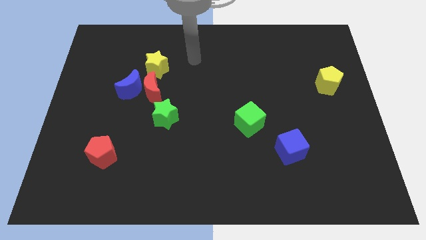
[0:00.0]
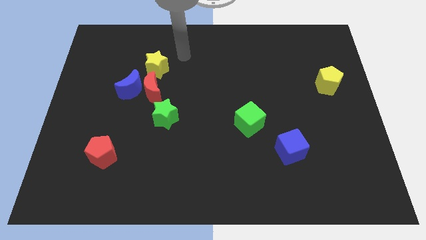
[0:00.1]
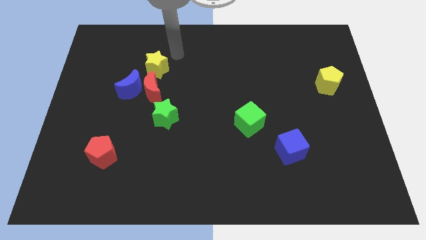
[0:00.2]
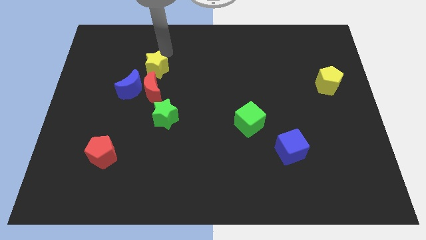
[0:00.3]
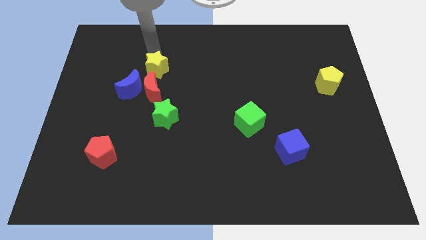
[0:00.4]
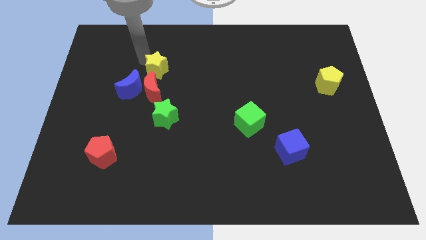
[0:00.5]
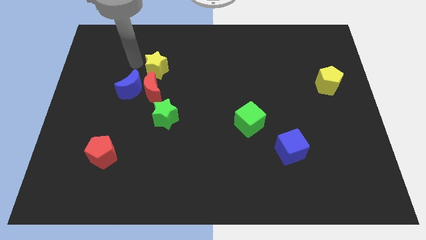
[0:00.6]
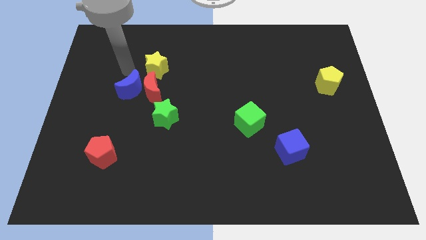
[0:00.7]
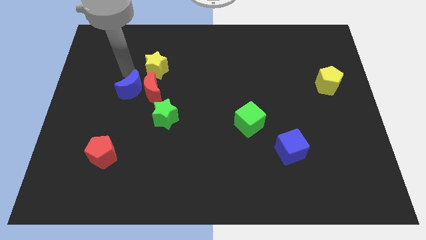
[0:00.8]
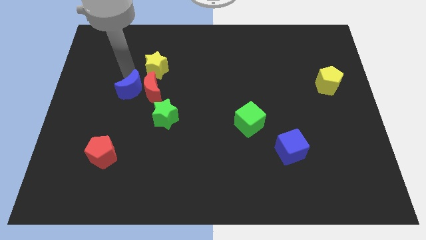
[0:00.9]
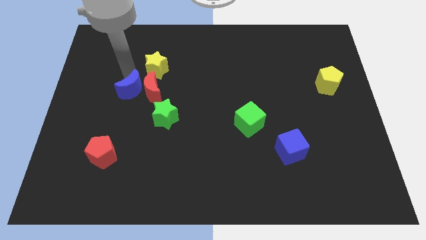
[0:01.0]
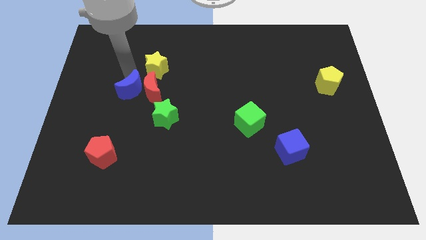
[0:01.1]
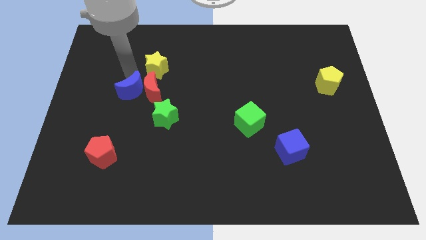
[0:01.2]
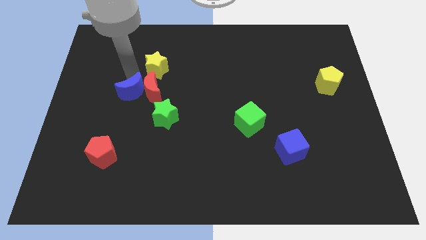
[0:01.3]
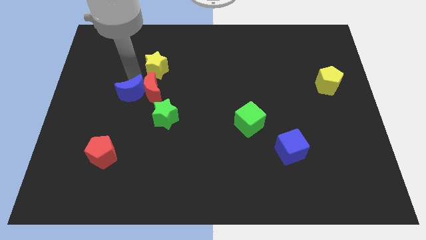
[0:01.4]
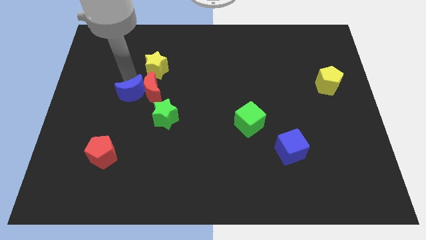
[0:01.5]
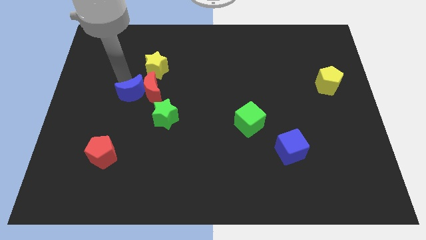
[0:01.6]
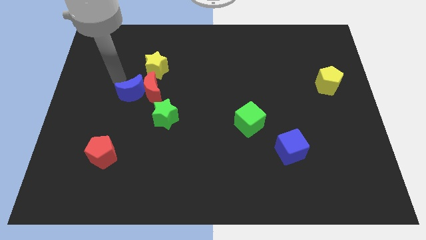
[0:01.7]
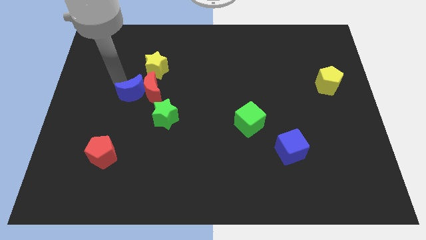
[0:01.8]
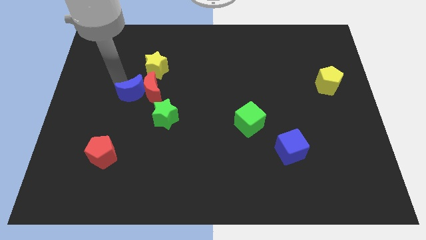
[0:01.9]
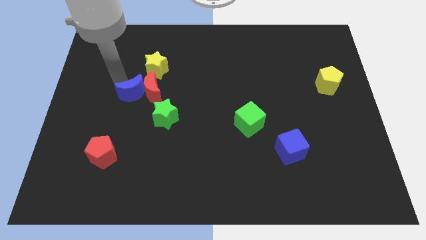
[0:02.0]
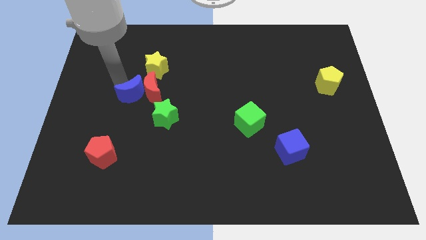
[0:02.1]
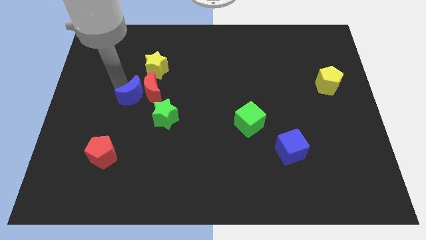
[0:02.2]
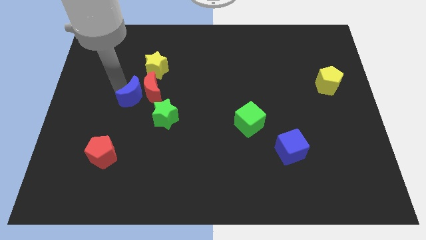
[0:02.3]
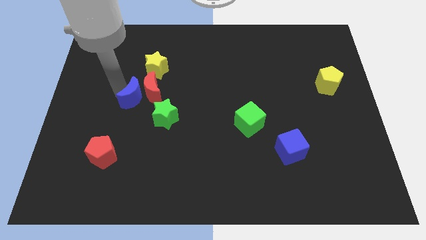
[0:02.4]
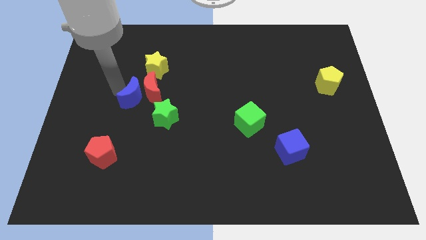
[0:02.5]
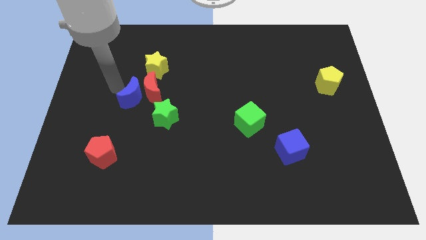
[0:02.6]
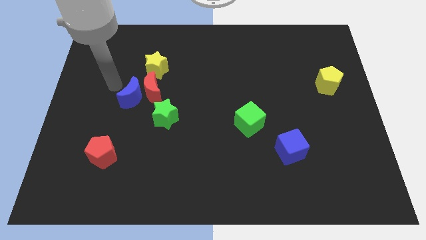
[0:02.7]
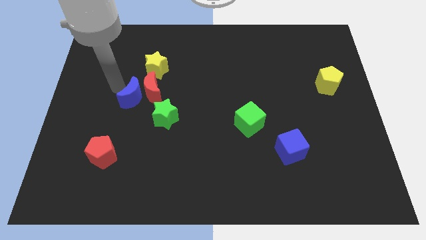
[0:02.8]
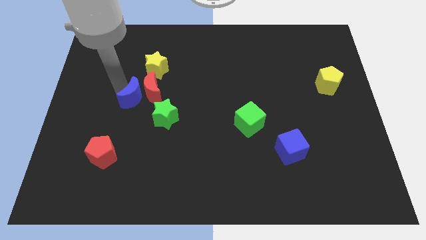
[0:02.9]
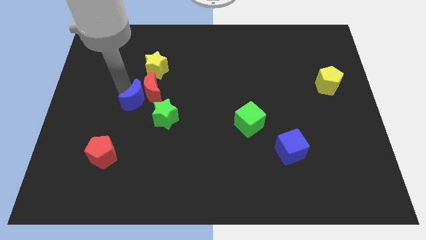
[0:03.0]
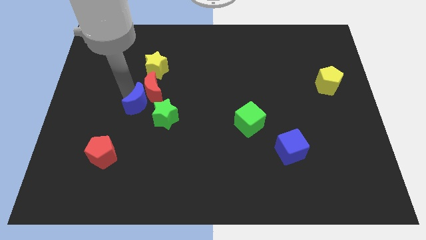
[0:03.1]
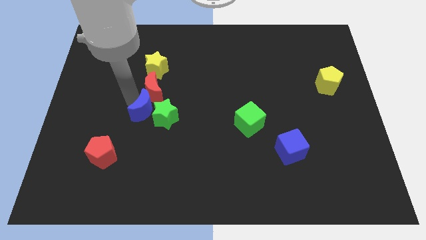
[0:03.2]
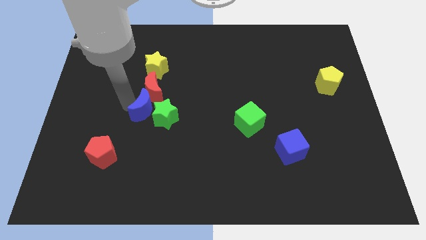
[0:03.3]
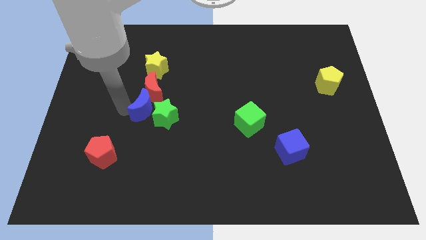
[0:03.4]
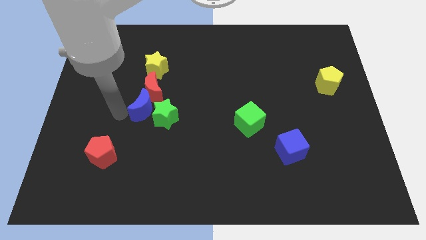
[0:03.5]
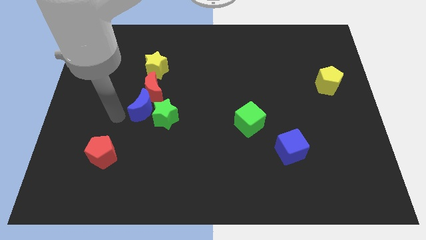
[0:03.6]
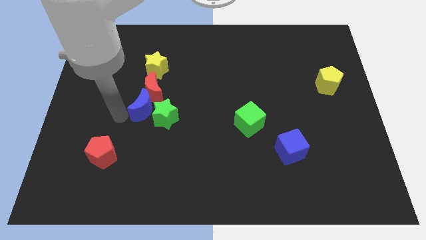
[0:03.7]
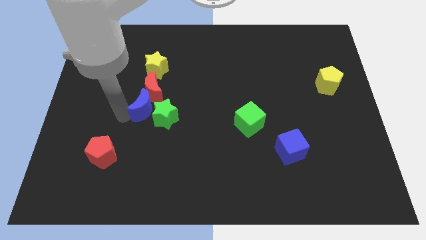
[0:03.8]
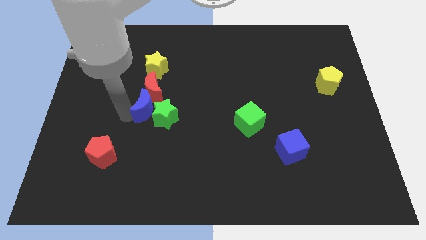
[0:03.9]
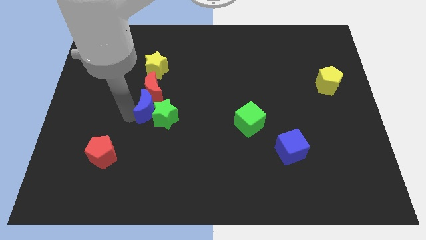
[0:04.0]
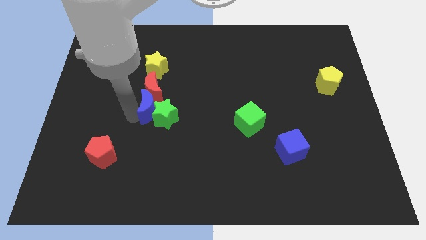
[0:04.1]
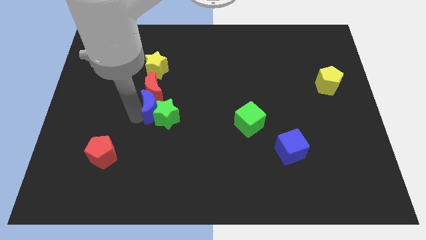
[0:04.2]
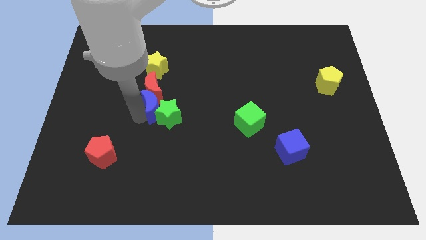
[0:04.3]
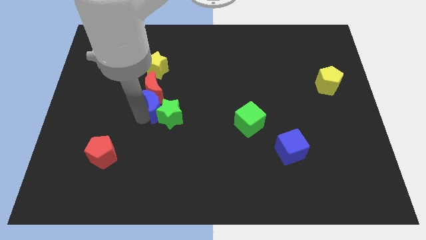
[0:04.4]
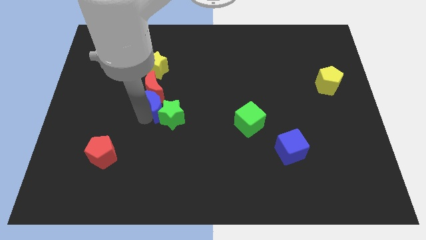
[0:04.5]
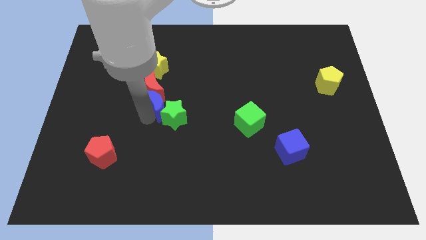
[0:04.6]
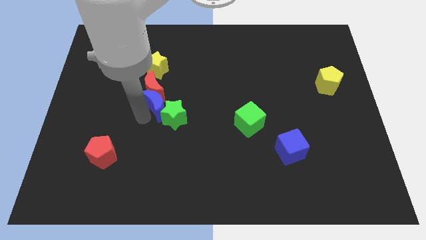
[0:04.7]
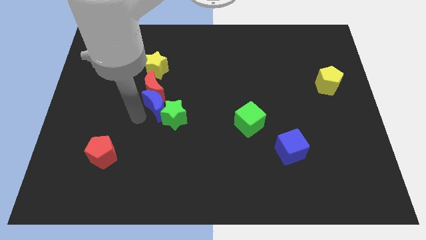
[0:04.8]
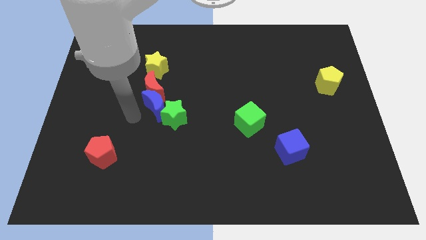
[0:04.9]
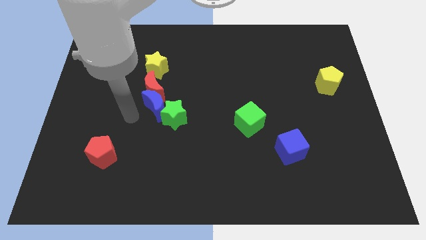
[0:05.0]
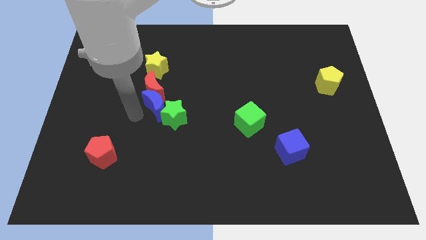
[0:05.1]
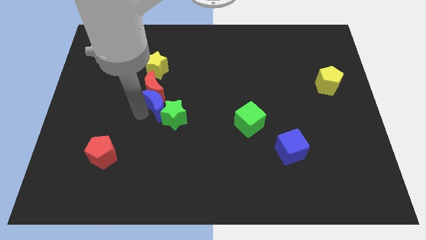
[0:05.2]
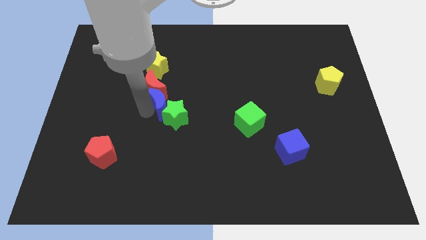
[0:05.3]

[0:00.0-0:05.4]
put the blue moon to the center of the board

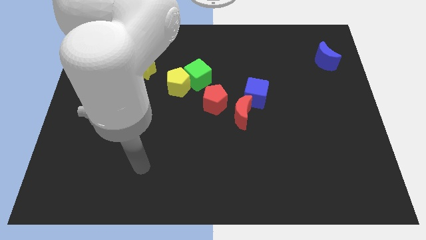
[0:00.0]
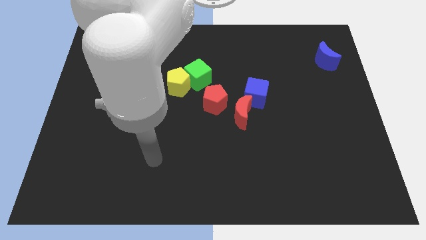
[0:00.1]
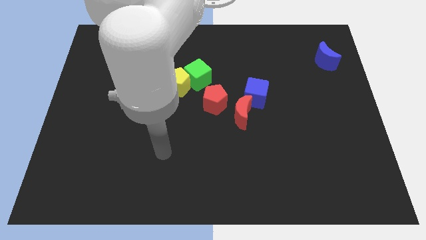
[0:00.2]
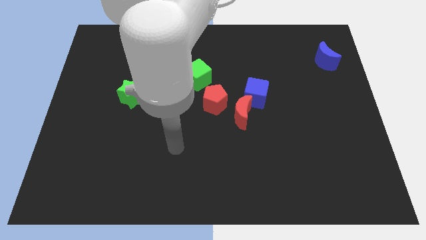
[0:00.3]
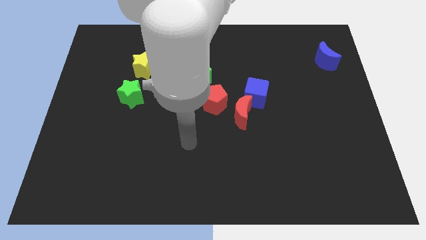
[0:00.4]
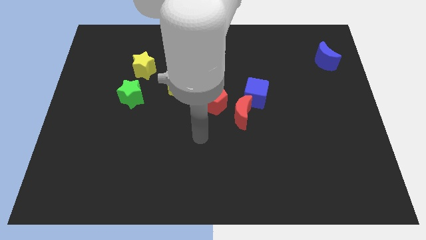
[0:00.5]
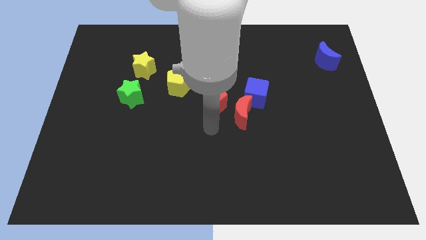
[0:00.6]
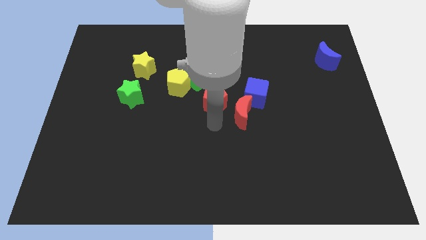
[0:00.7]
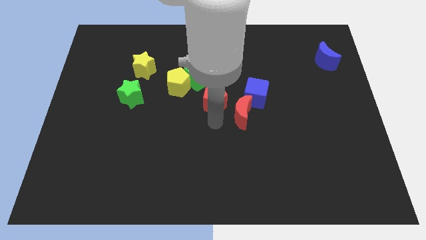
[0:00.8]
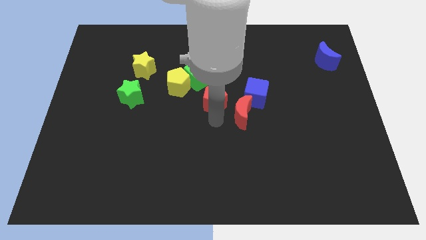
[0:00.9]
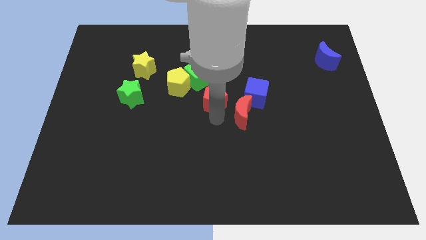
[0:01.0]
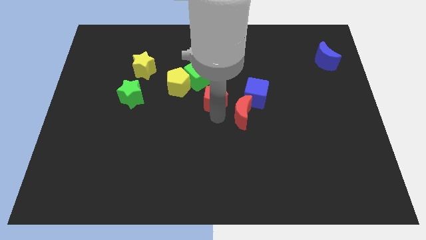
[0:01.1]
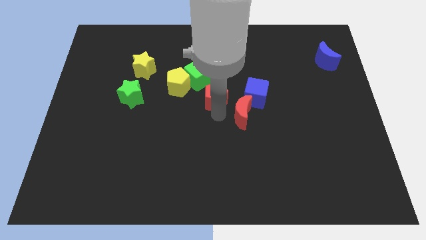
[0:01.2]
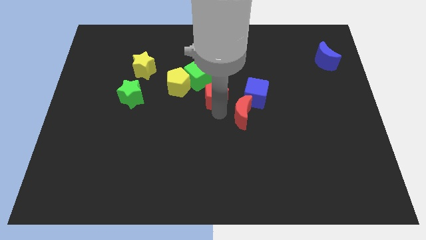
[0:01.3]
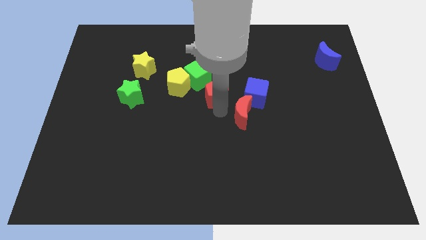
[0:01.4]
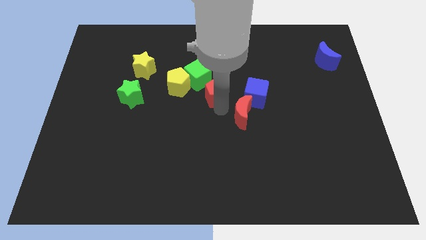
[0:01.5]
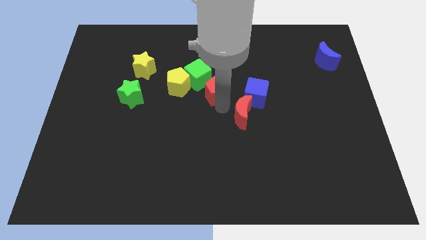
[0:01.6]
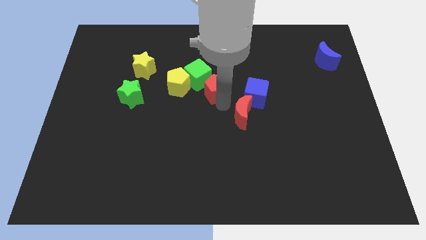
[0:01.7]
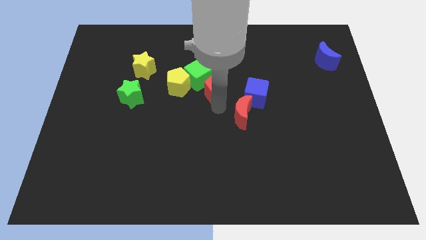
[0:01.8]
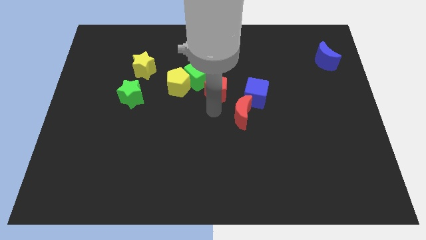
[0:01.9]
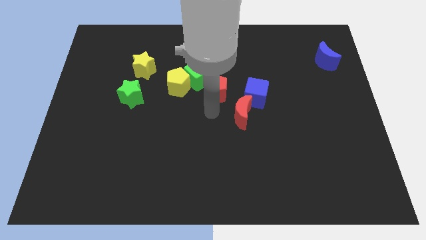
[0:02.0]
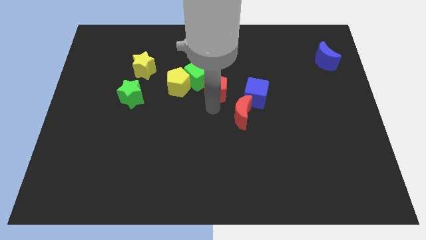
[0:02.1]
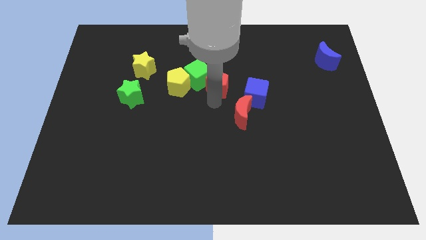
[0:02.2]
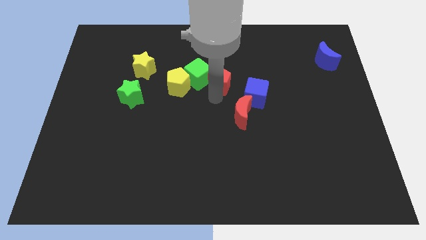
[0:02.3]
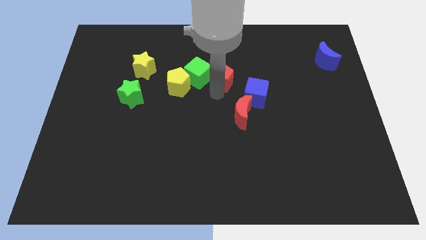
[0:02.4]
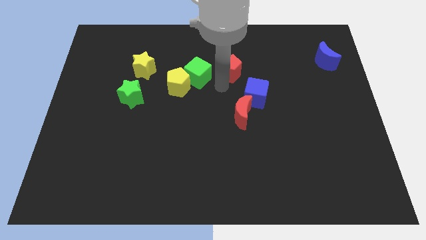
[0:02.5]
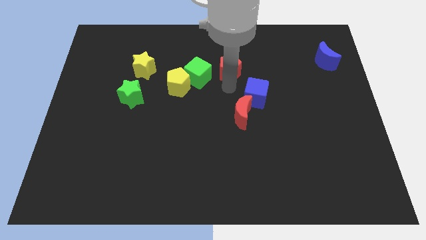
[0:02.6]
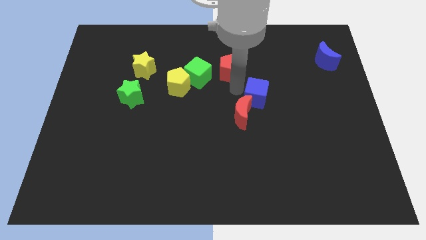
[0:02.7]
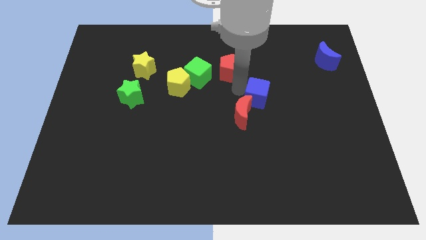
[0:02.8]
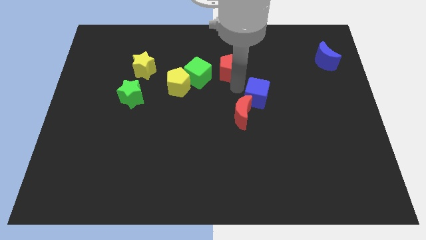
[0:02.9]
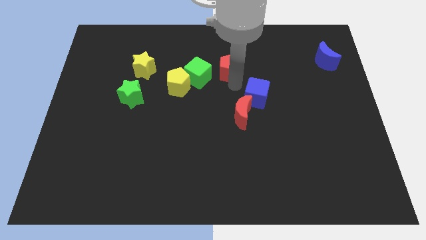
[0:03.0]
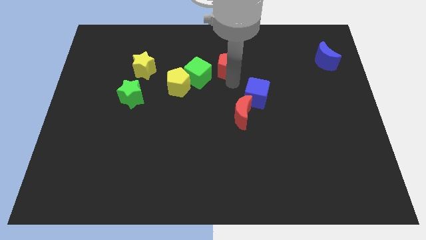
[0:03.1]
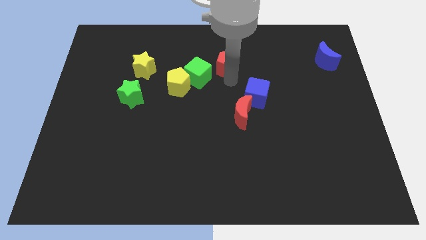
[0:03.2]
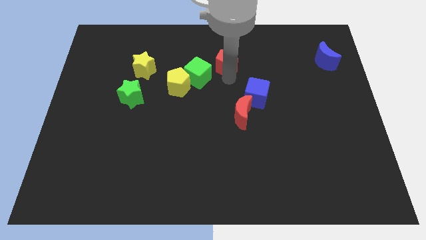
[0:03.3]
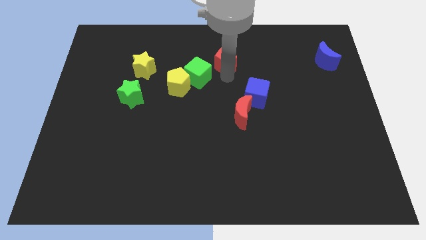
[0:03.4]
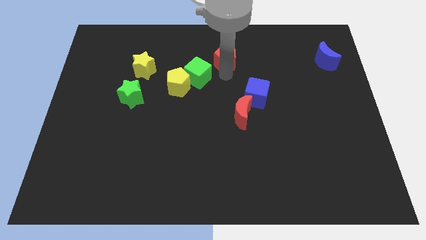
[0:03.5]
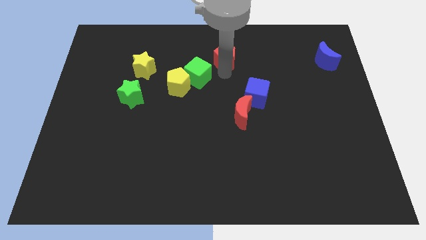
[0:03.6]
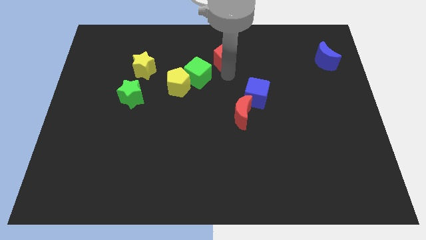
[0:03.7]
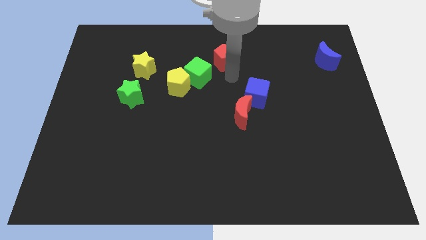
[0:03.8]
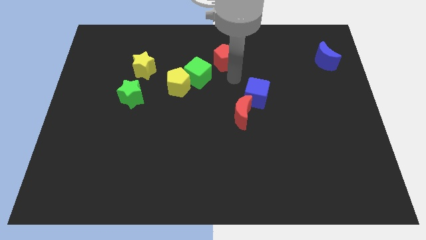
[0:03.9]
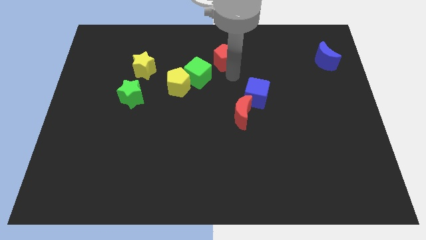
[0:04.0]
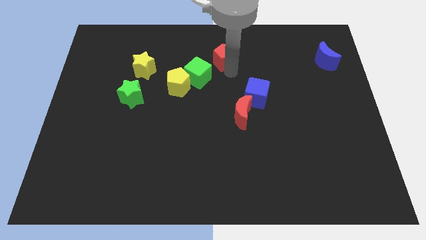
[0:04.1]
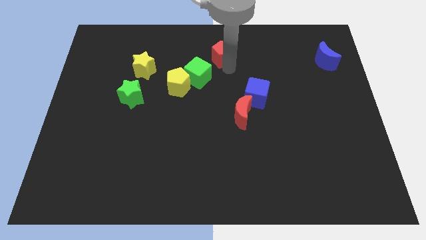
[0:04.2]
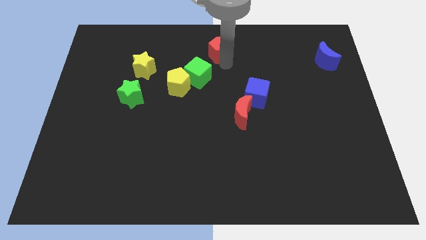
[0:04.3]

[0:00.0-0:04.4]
push the red pentagon to the towards your base
